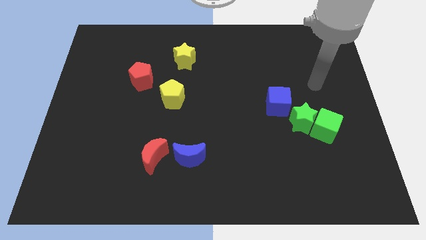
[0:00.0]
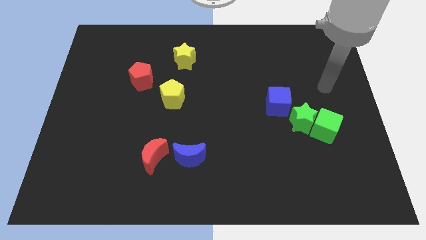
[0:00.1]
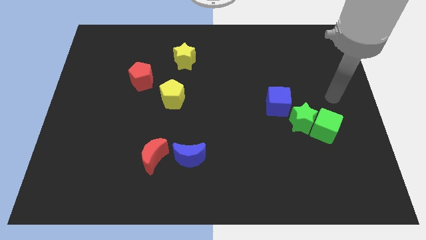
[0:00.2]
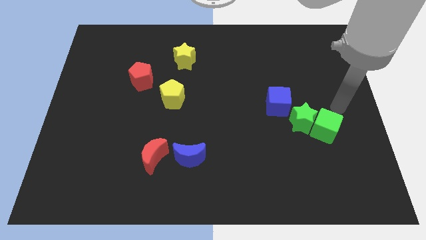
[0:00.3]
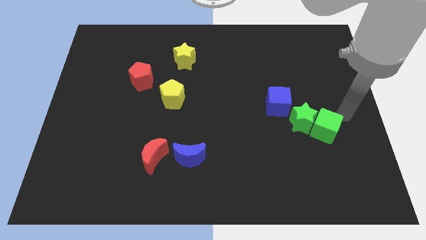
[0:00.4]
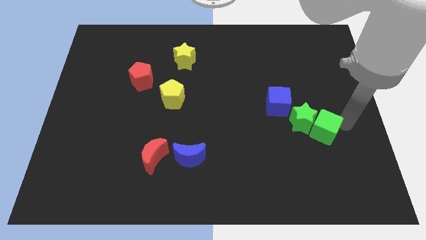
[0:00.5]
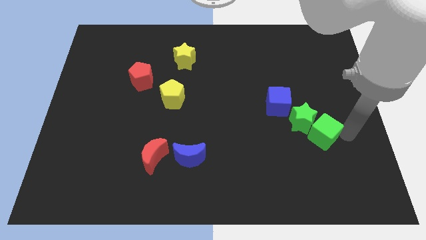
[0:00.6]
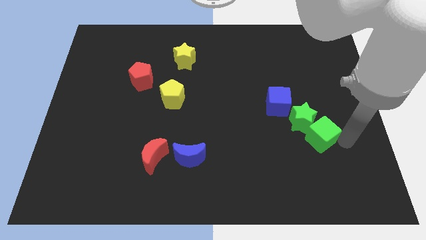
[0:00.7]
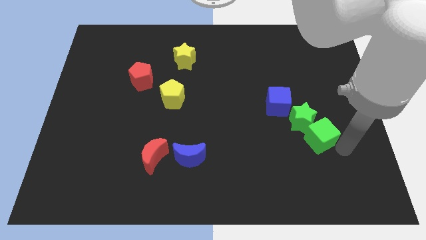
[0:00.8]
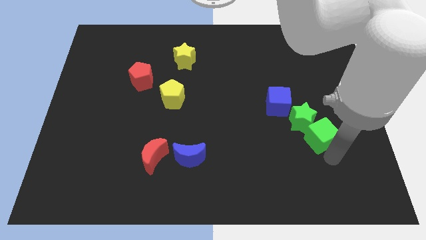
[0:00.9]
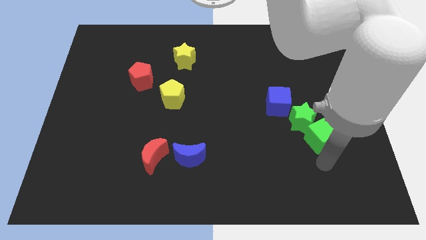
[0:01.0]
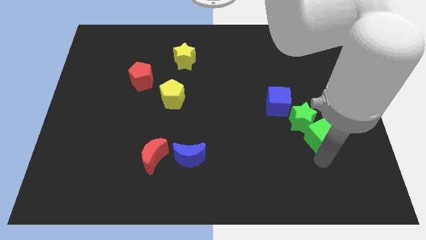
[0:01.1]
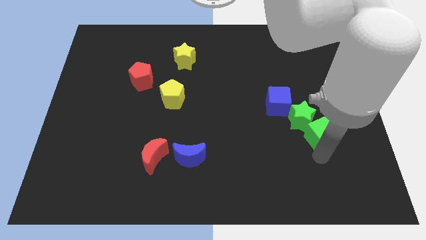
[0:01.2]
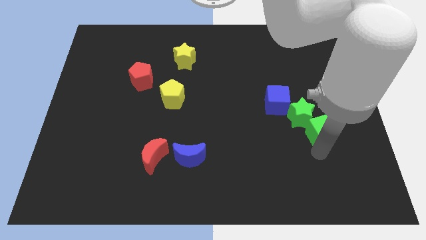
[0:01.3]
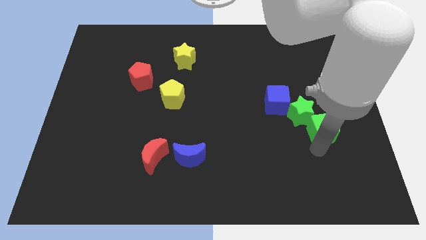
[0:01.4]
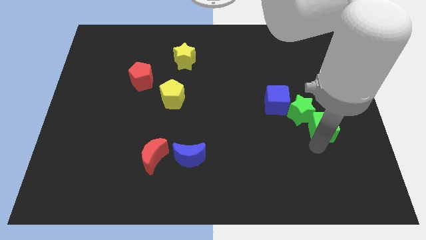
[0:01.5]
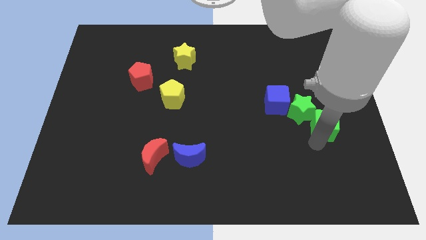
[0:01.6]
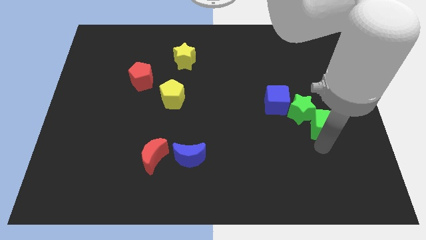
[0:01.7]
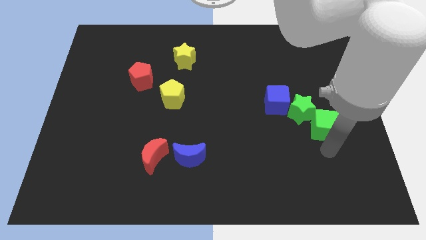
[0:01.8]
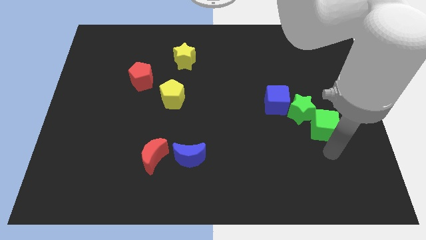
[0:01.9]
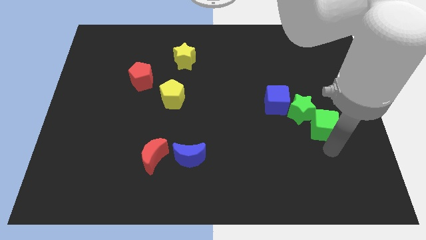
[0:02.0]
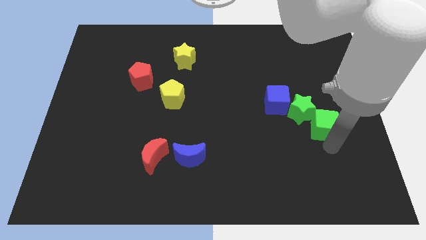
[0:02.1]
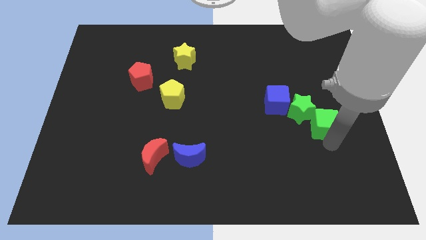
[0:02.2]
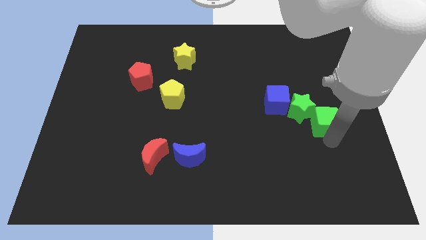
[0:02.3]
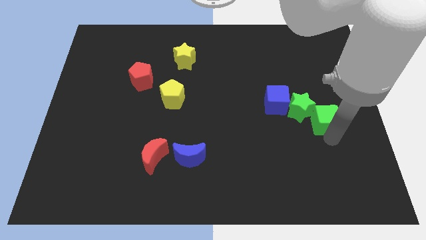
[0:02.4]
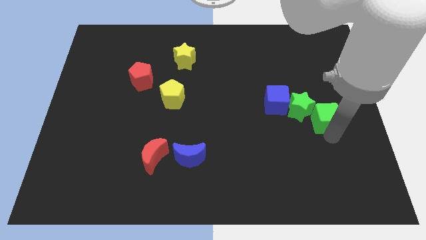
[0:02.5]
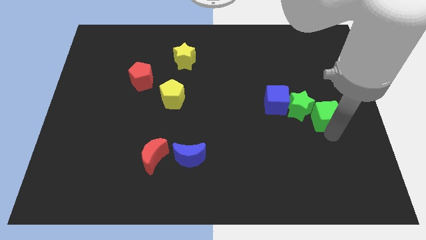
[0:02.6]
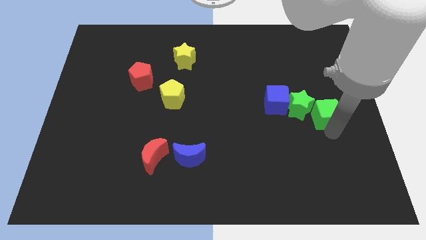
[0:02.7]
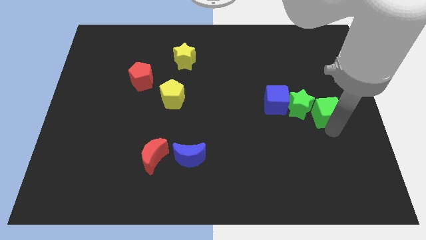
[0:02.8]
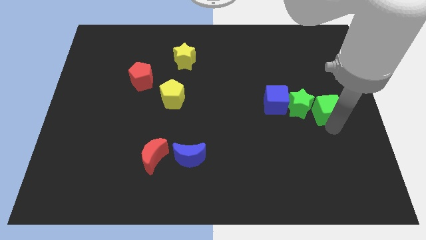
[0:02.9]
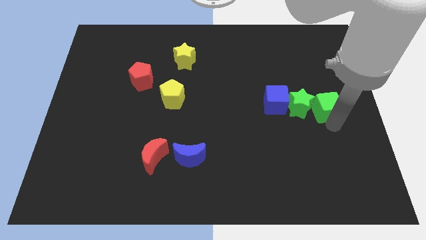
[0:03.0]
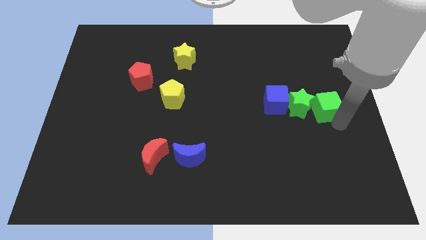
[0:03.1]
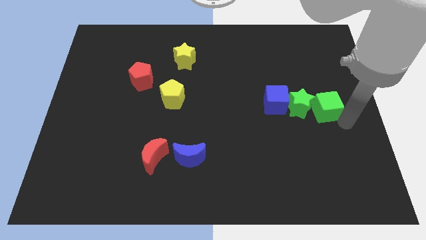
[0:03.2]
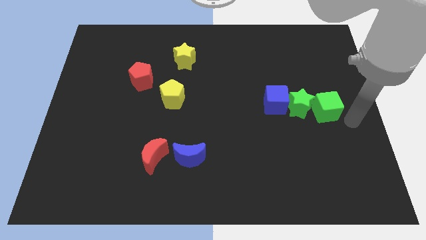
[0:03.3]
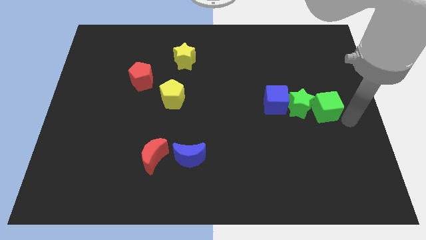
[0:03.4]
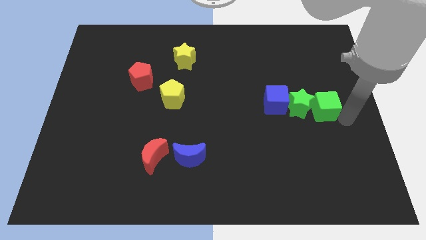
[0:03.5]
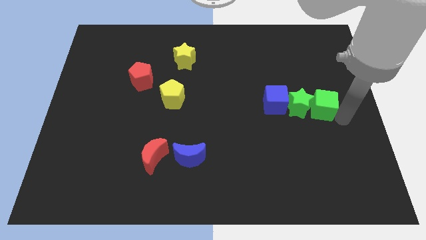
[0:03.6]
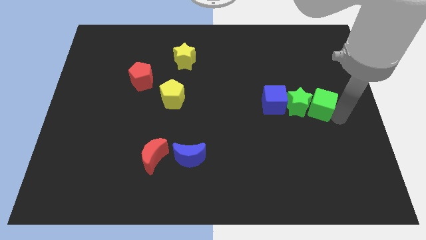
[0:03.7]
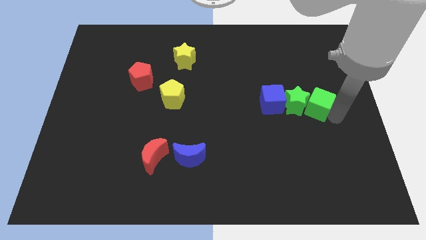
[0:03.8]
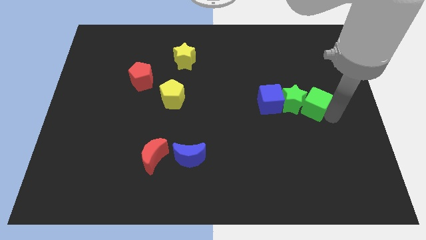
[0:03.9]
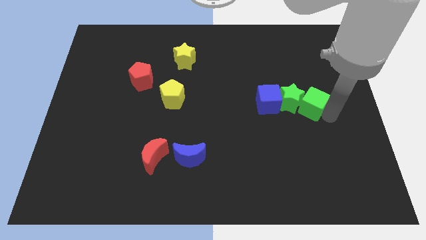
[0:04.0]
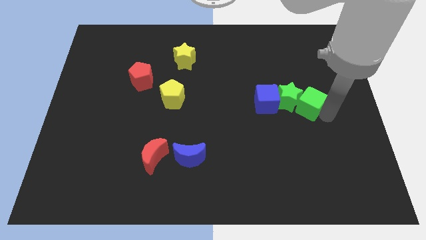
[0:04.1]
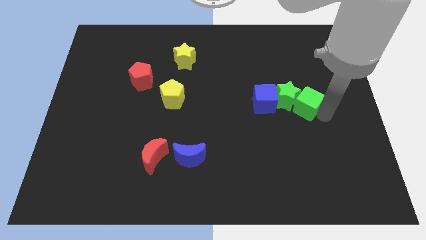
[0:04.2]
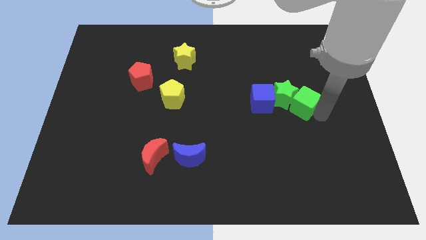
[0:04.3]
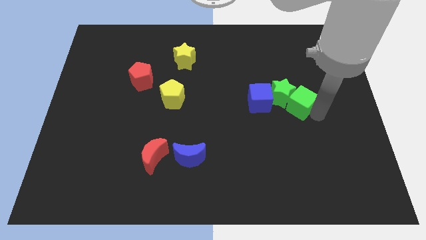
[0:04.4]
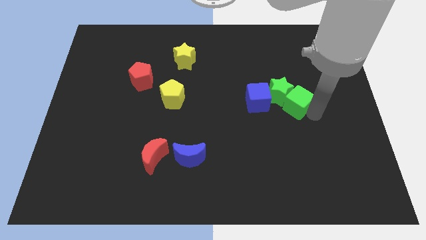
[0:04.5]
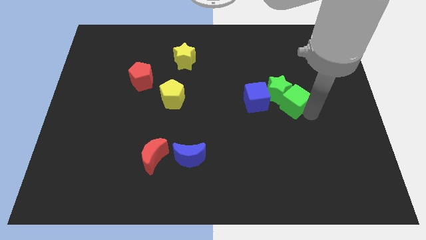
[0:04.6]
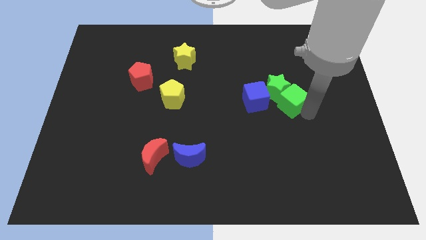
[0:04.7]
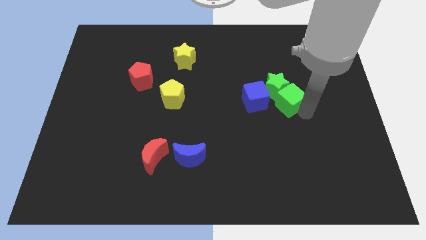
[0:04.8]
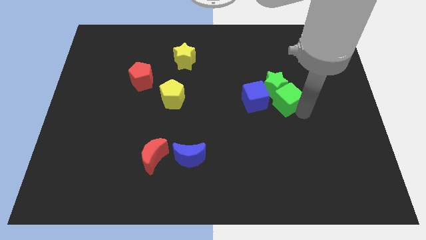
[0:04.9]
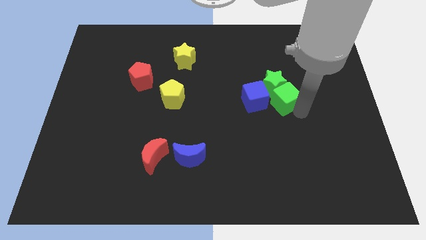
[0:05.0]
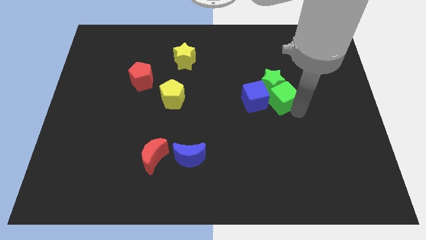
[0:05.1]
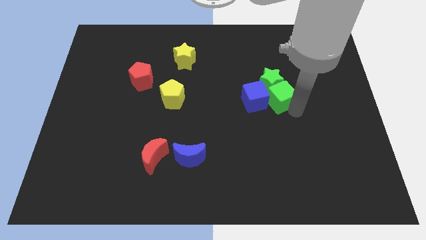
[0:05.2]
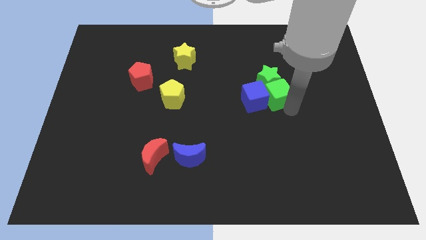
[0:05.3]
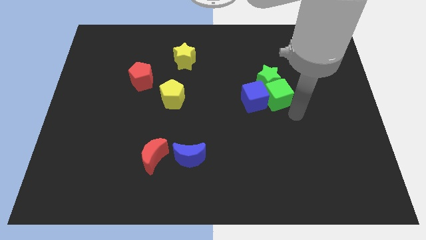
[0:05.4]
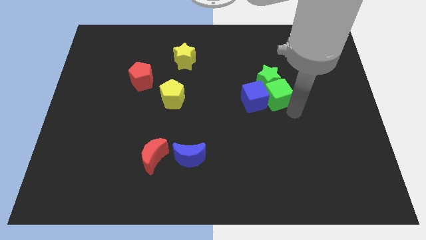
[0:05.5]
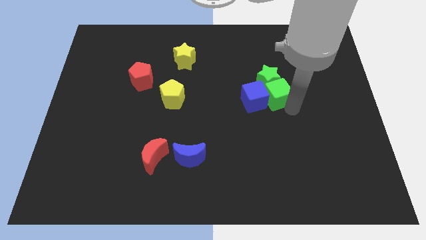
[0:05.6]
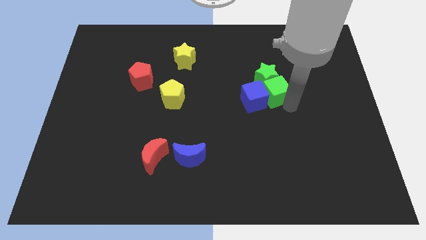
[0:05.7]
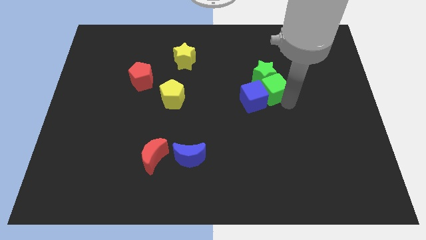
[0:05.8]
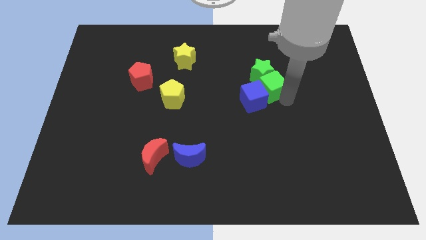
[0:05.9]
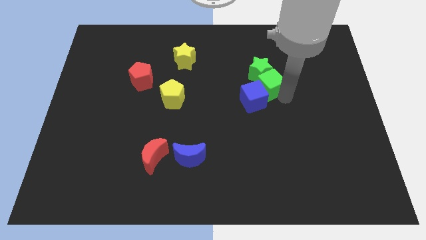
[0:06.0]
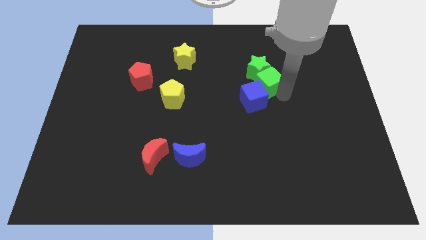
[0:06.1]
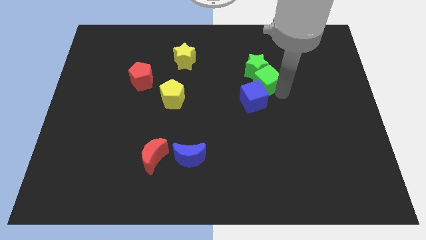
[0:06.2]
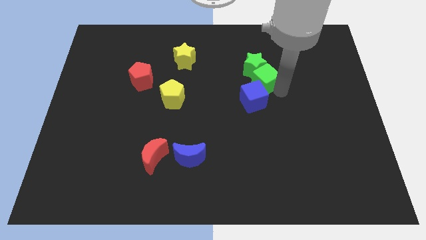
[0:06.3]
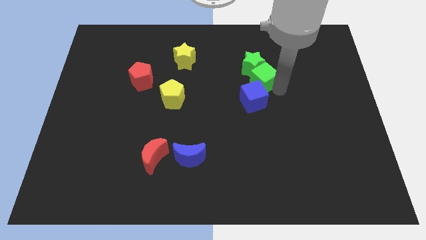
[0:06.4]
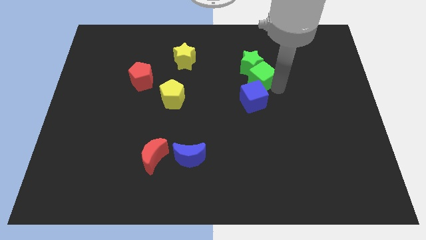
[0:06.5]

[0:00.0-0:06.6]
push the green cube upwards and to the left

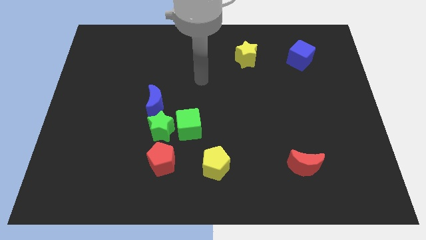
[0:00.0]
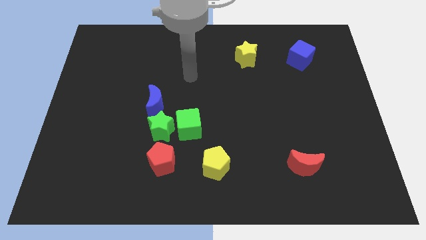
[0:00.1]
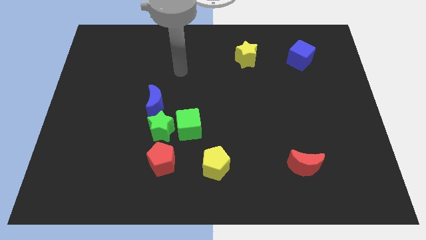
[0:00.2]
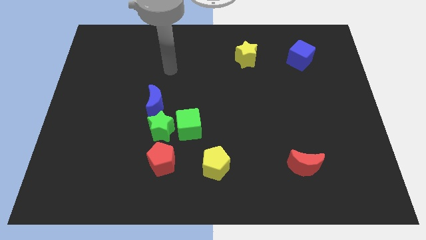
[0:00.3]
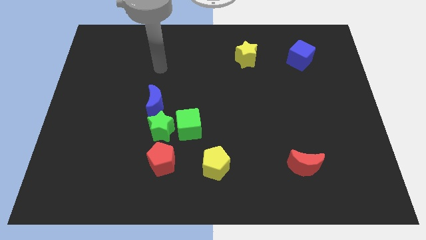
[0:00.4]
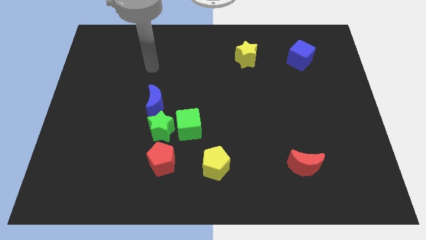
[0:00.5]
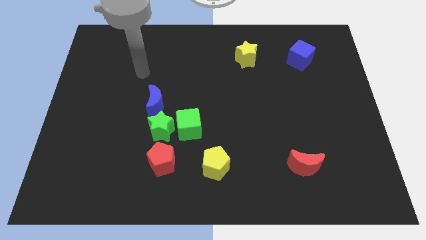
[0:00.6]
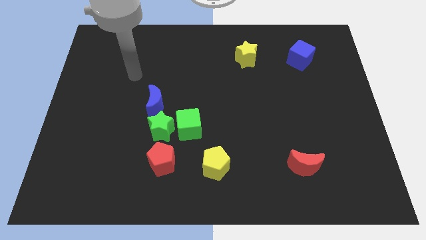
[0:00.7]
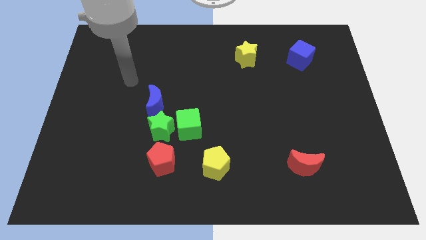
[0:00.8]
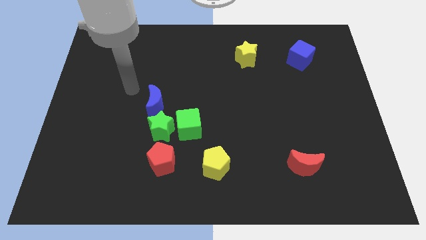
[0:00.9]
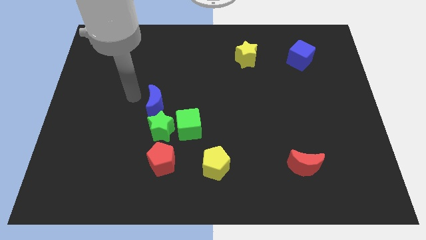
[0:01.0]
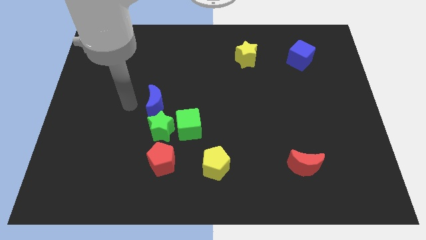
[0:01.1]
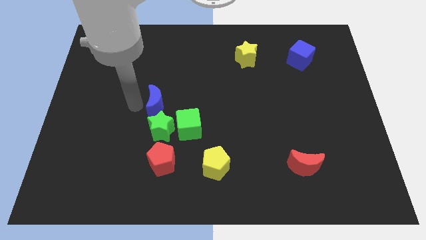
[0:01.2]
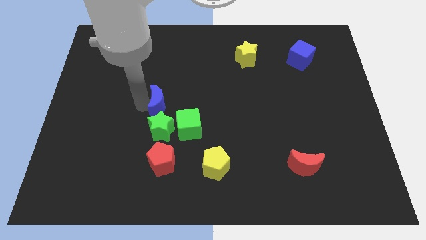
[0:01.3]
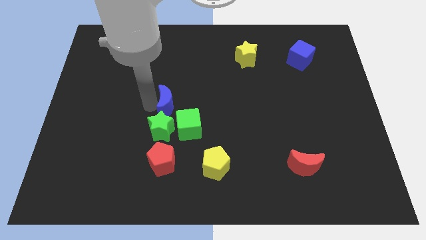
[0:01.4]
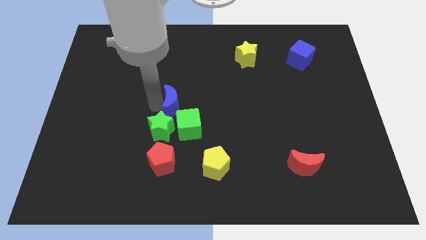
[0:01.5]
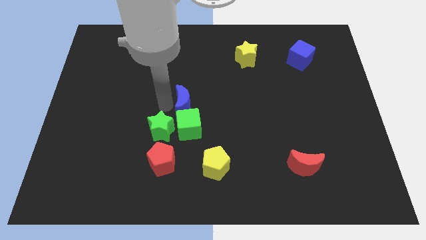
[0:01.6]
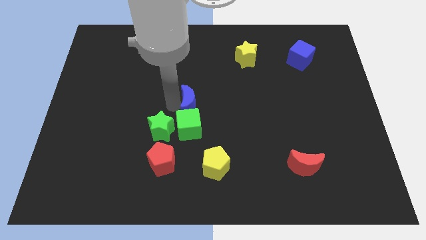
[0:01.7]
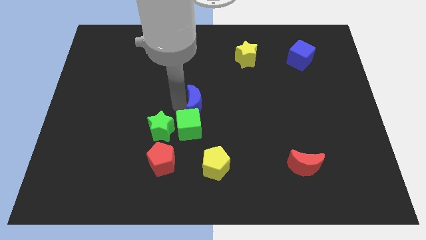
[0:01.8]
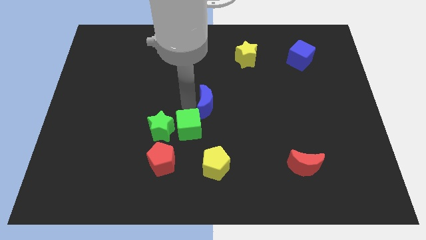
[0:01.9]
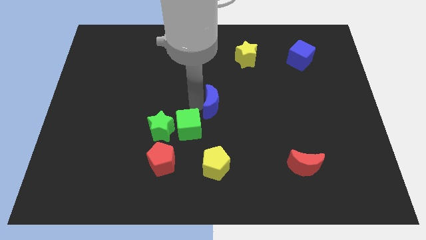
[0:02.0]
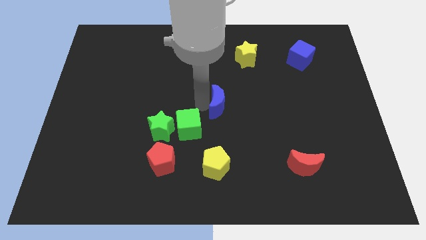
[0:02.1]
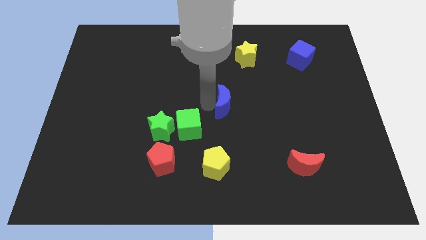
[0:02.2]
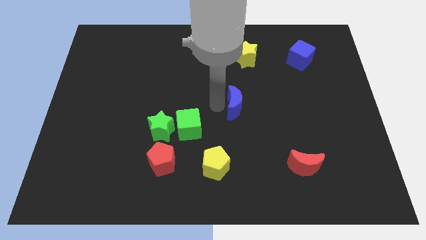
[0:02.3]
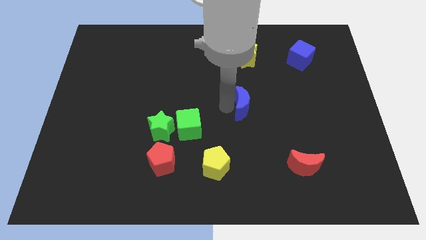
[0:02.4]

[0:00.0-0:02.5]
slide the blue moon to the right
